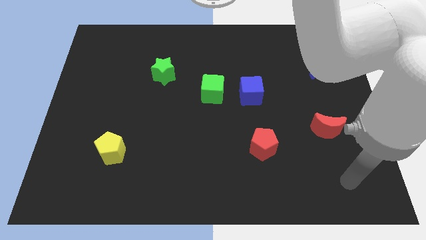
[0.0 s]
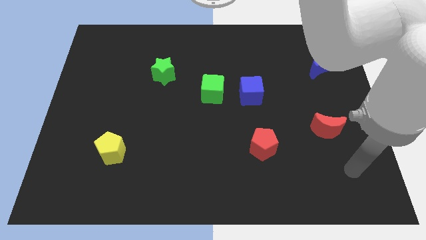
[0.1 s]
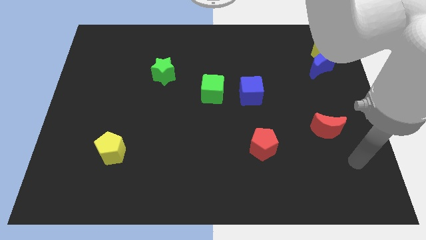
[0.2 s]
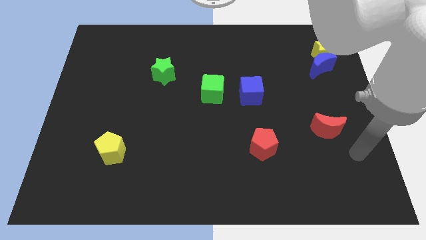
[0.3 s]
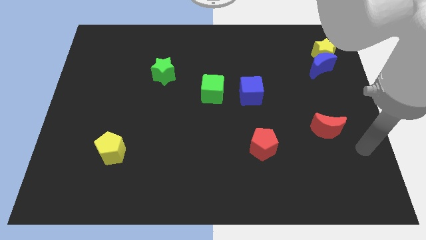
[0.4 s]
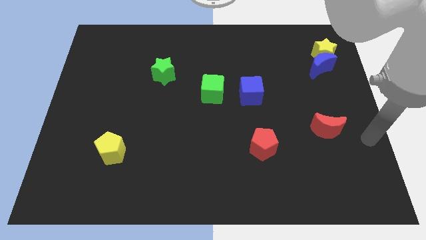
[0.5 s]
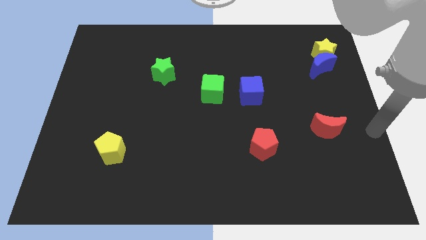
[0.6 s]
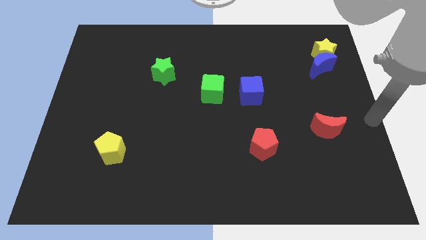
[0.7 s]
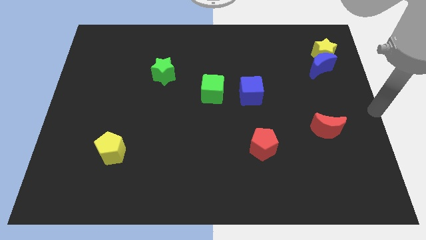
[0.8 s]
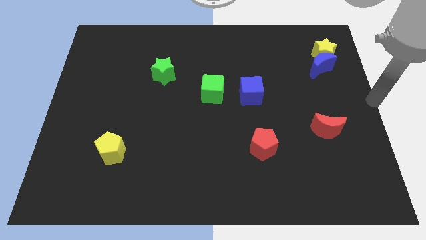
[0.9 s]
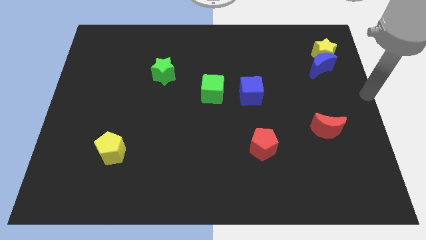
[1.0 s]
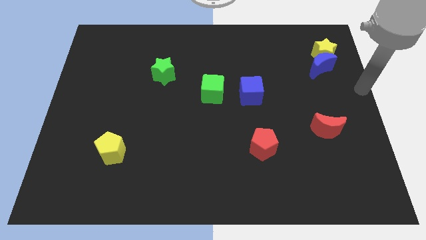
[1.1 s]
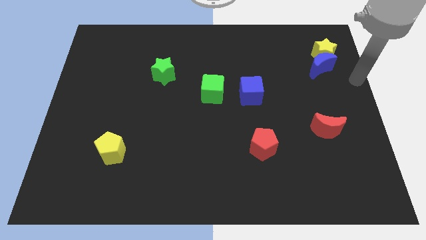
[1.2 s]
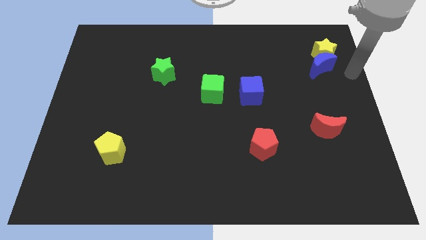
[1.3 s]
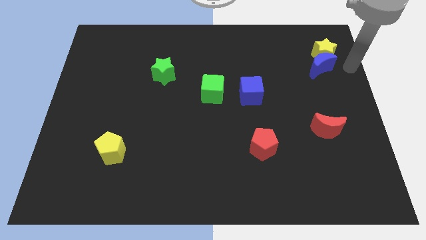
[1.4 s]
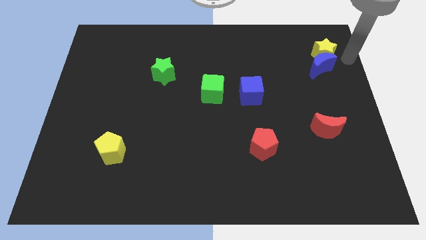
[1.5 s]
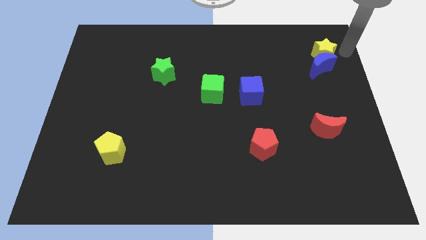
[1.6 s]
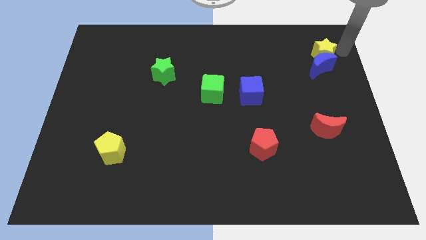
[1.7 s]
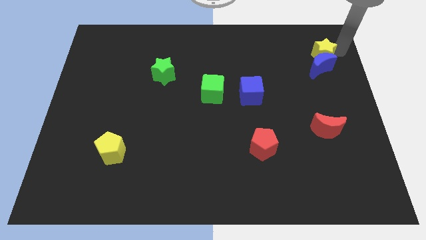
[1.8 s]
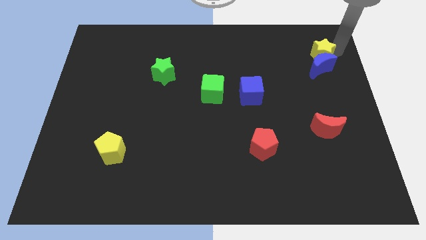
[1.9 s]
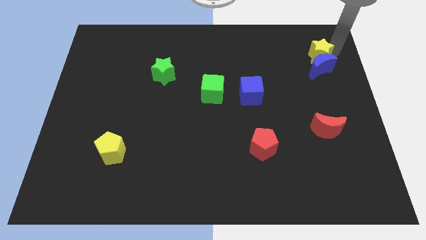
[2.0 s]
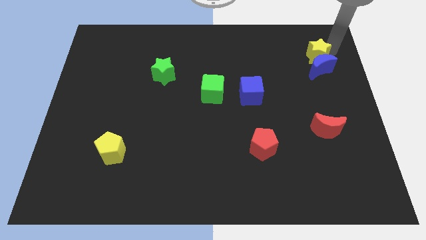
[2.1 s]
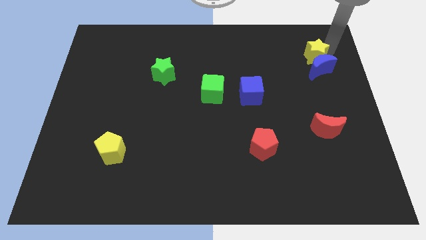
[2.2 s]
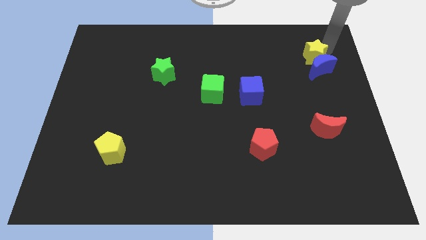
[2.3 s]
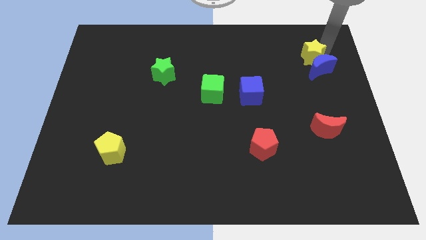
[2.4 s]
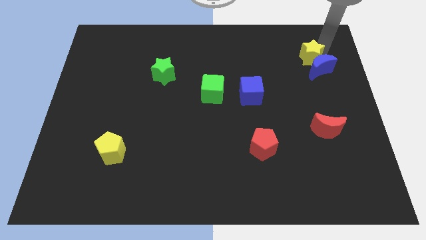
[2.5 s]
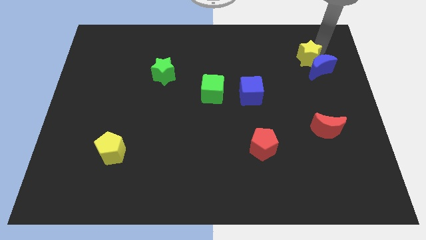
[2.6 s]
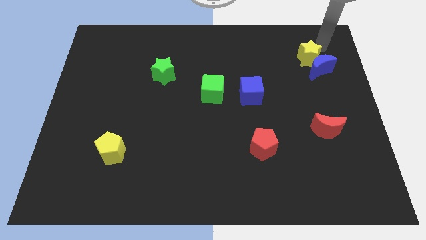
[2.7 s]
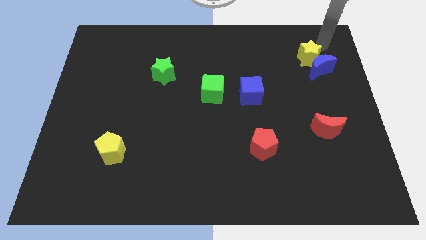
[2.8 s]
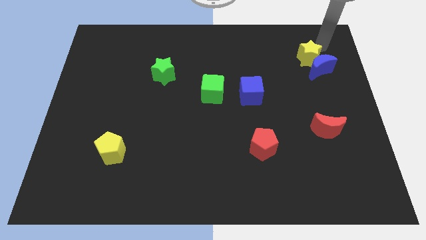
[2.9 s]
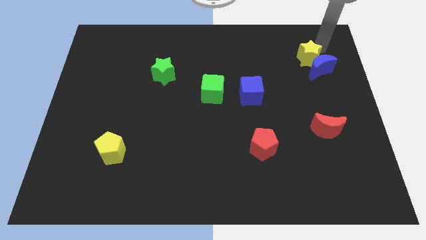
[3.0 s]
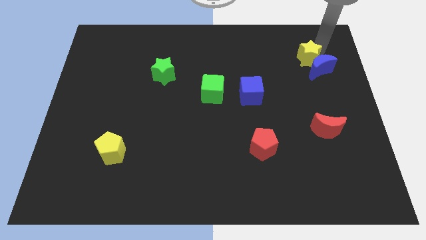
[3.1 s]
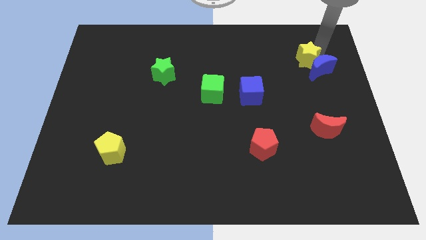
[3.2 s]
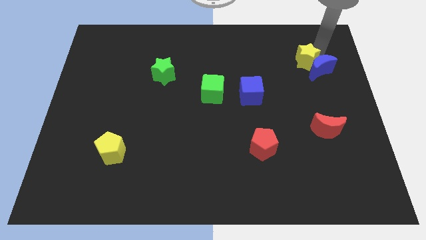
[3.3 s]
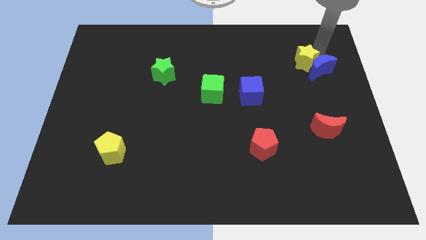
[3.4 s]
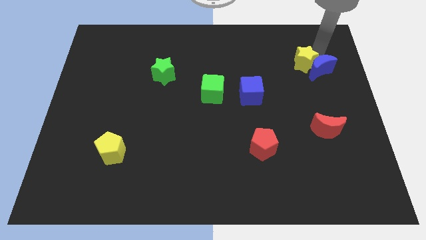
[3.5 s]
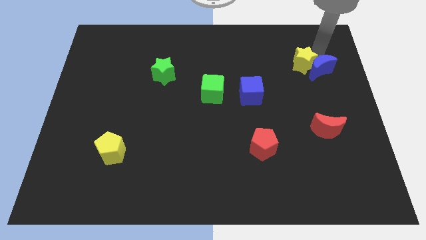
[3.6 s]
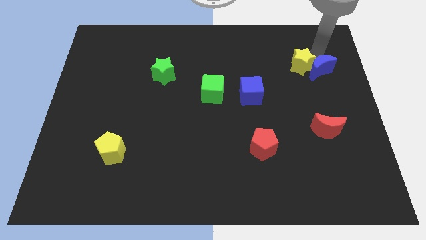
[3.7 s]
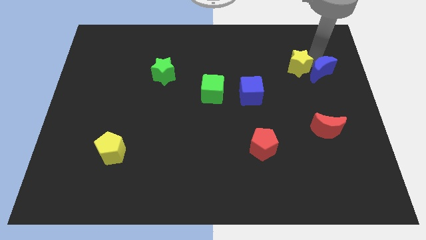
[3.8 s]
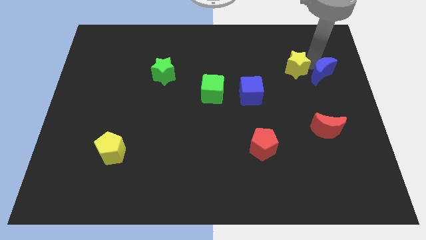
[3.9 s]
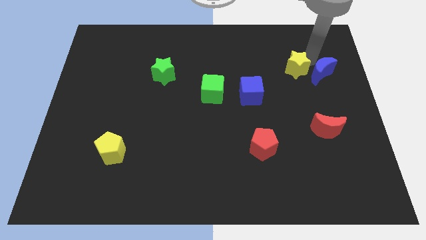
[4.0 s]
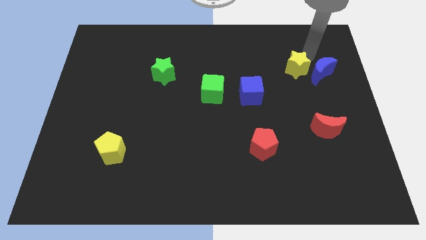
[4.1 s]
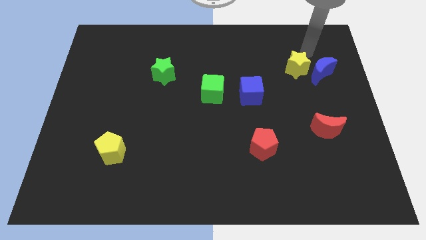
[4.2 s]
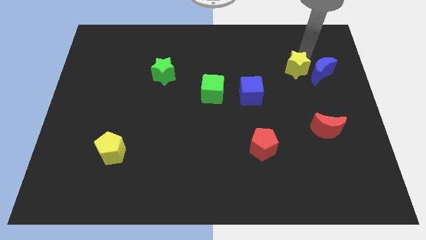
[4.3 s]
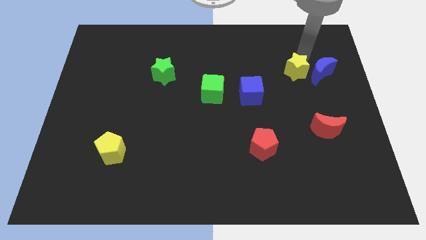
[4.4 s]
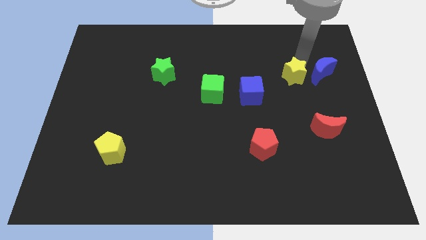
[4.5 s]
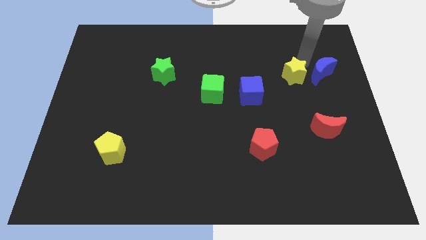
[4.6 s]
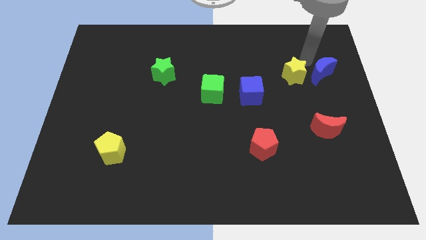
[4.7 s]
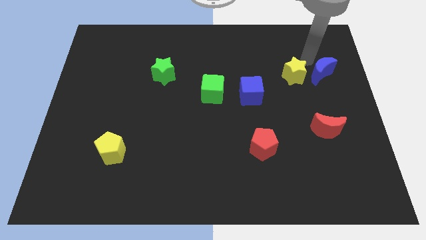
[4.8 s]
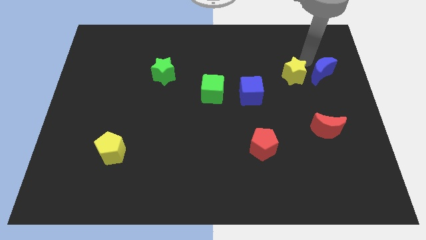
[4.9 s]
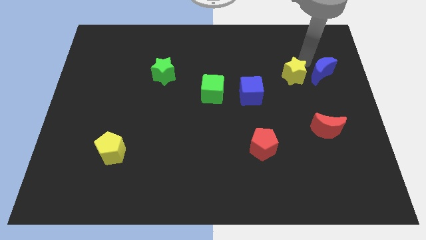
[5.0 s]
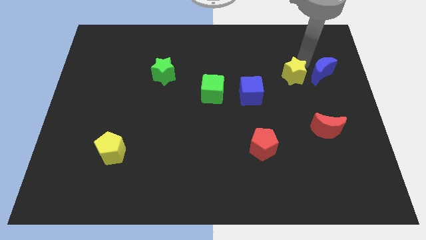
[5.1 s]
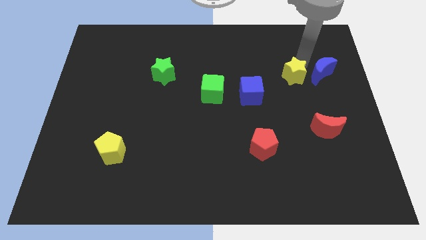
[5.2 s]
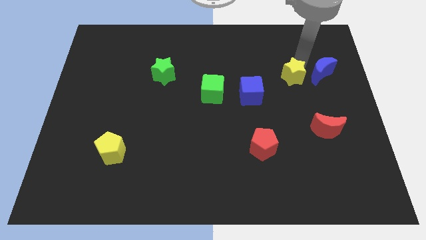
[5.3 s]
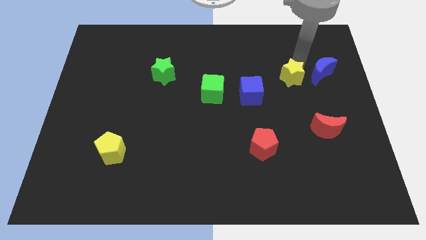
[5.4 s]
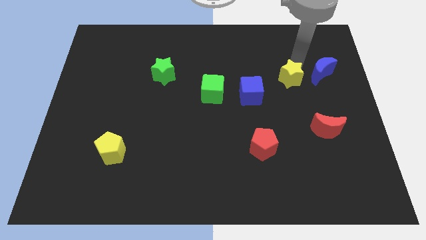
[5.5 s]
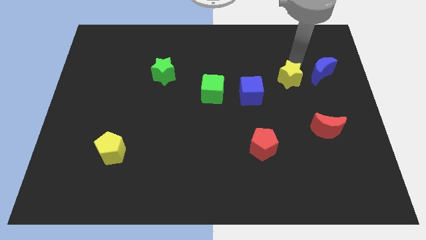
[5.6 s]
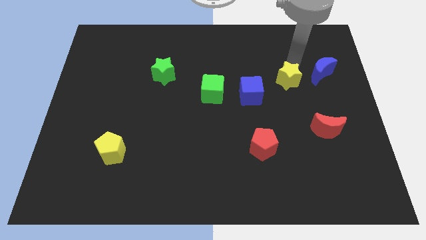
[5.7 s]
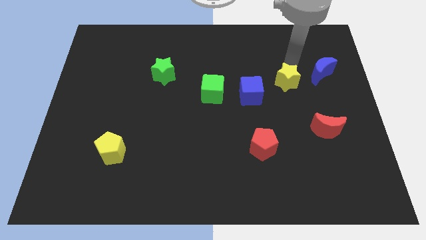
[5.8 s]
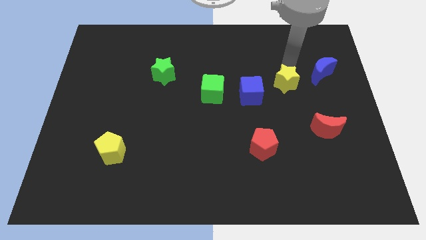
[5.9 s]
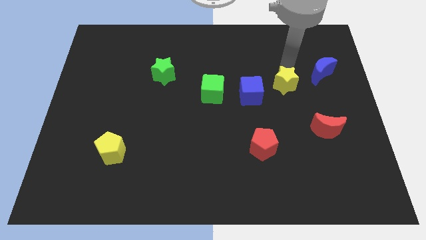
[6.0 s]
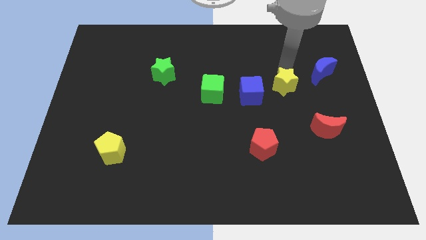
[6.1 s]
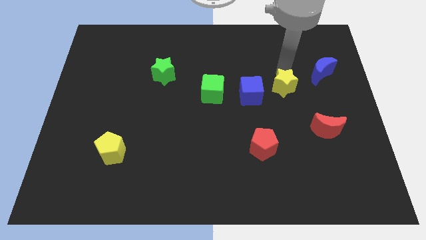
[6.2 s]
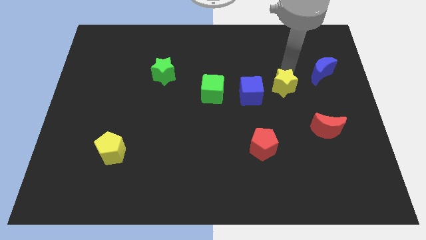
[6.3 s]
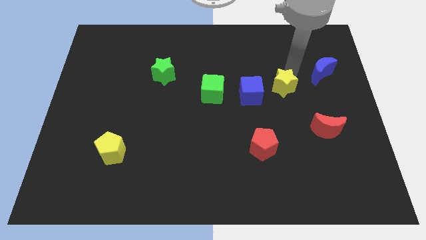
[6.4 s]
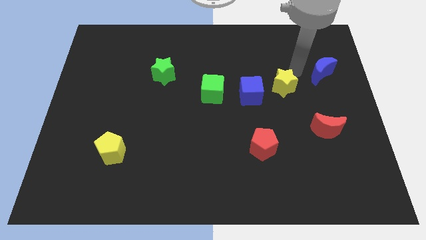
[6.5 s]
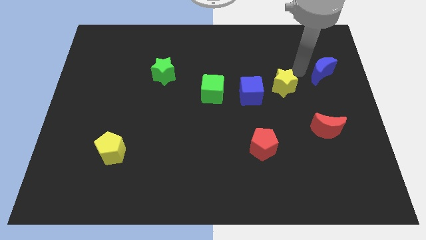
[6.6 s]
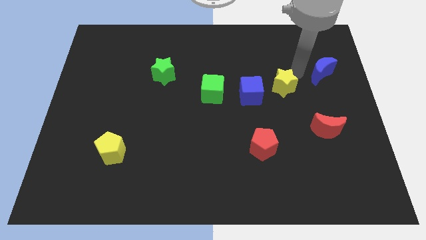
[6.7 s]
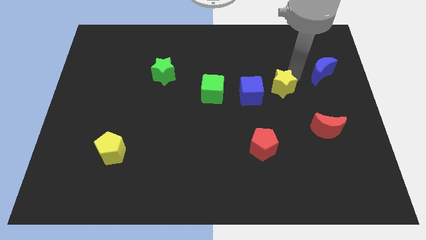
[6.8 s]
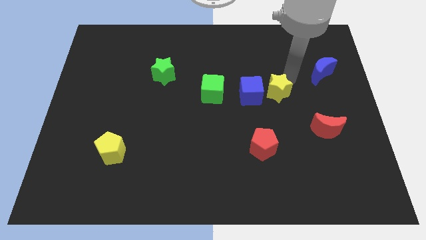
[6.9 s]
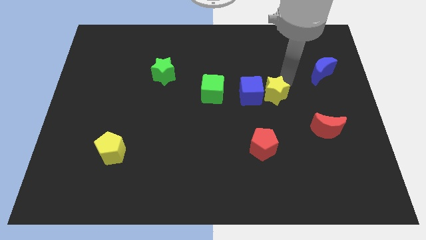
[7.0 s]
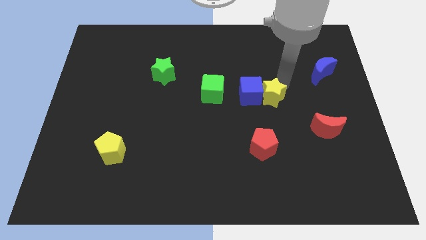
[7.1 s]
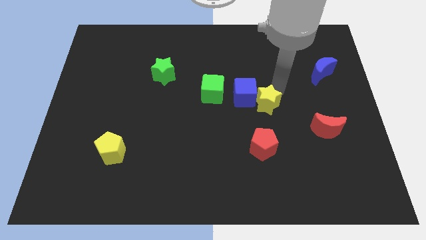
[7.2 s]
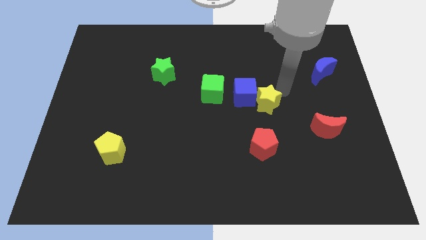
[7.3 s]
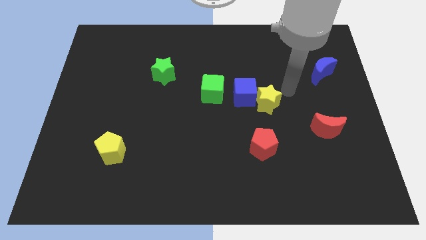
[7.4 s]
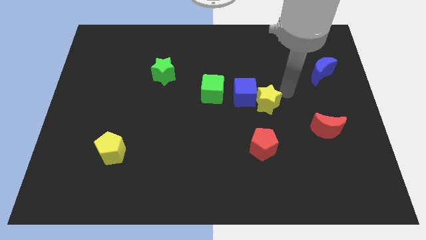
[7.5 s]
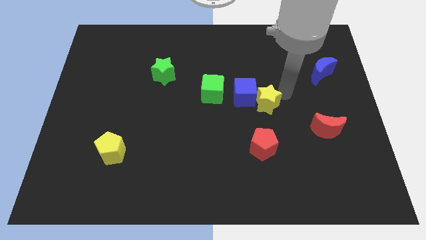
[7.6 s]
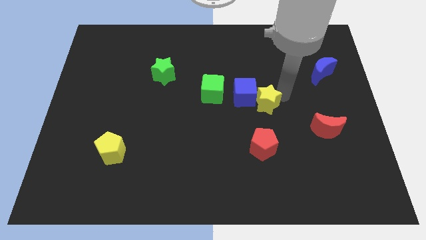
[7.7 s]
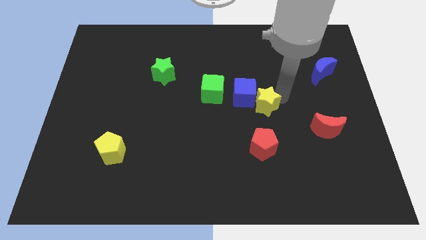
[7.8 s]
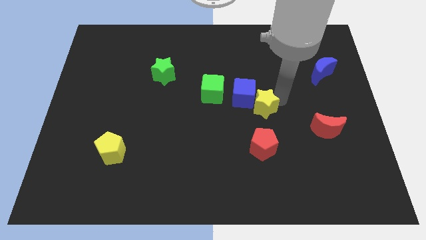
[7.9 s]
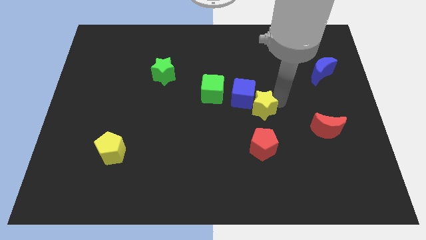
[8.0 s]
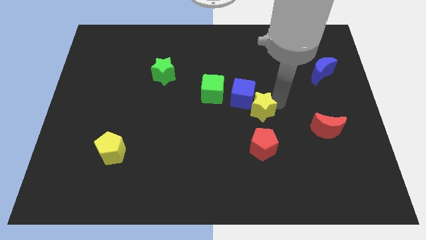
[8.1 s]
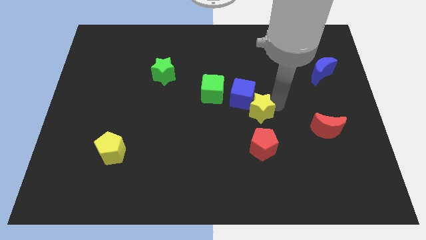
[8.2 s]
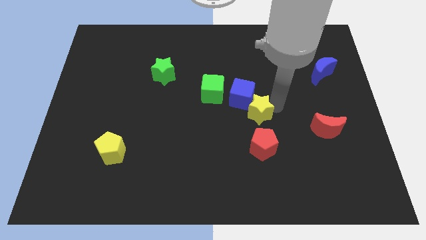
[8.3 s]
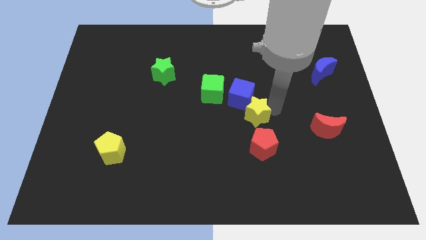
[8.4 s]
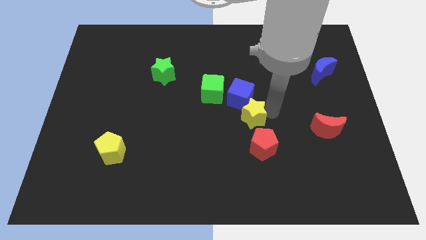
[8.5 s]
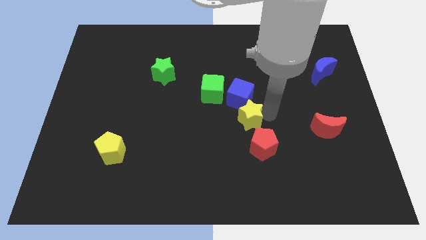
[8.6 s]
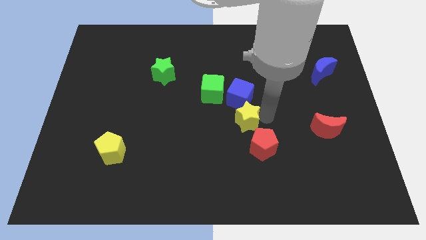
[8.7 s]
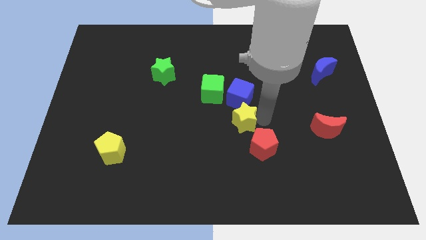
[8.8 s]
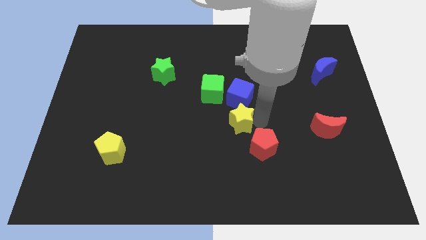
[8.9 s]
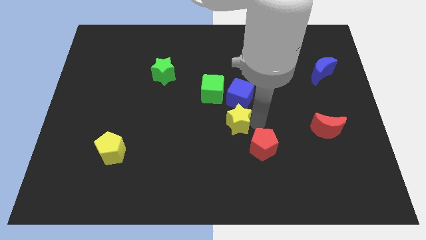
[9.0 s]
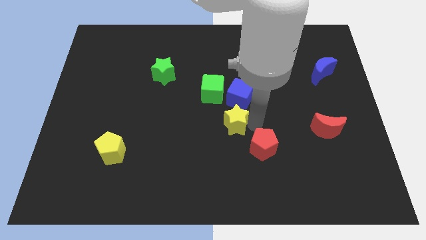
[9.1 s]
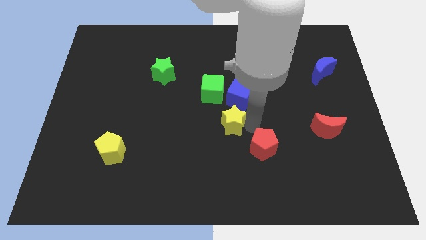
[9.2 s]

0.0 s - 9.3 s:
move the yellow star below the green cube
